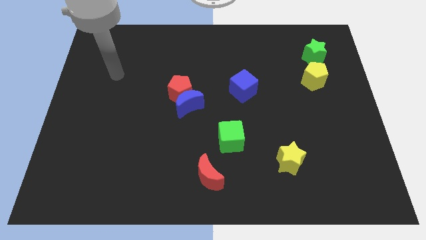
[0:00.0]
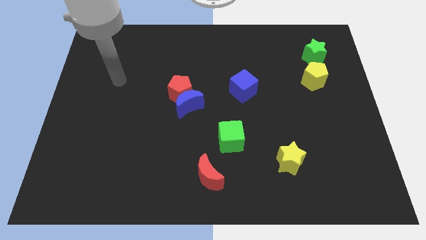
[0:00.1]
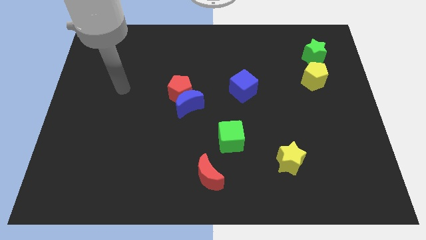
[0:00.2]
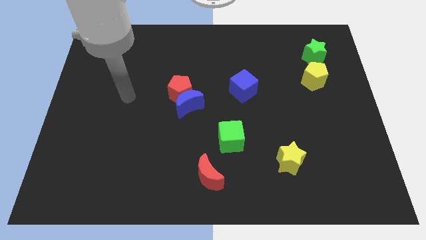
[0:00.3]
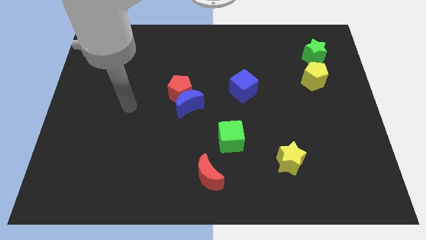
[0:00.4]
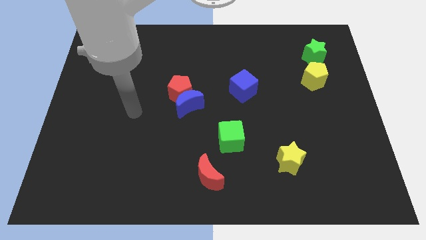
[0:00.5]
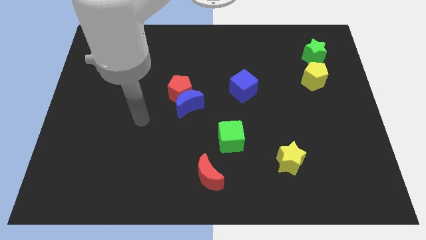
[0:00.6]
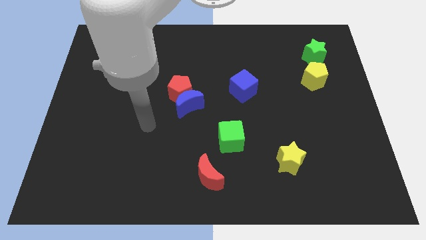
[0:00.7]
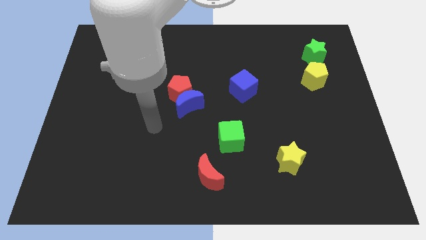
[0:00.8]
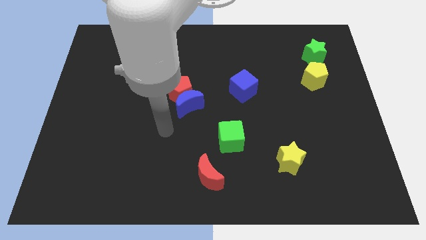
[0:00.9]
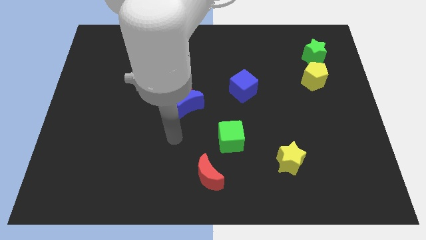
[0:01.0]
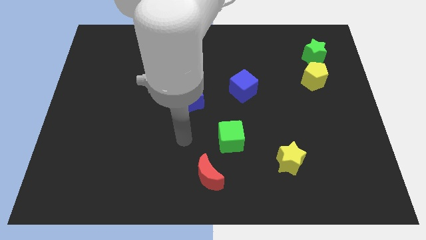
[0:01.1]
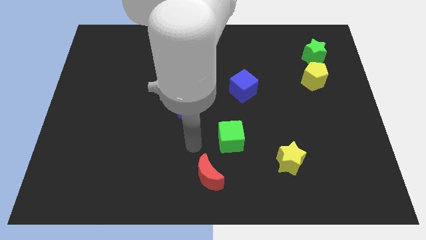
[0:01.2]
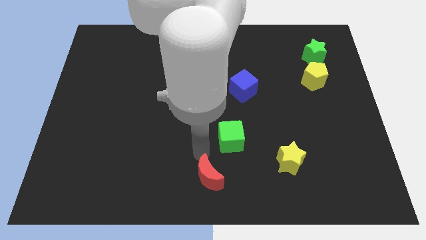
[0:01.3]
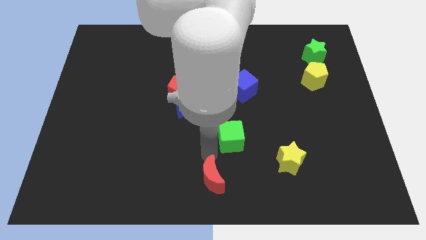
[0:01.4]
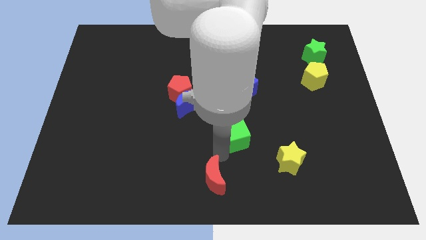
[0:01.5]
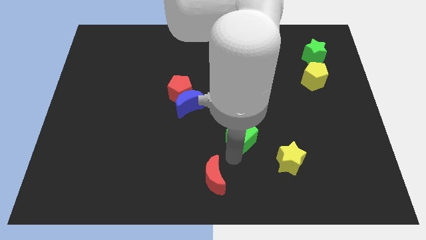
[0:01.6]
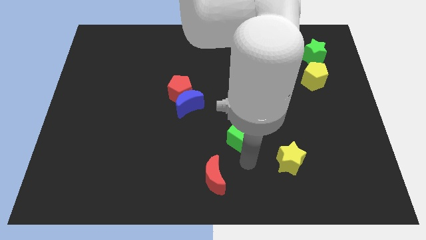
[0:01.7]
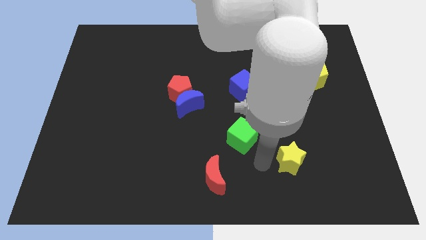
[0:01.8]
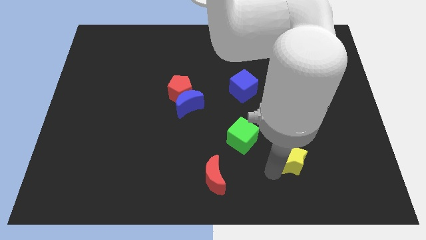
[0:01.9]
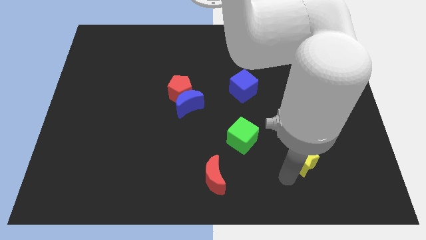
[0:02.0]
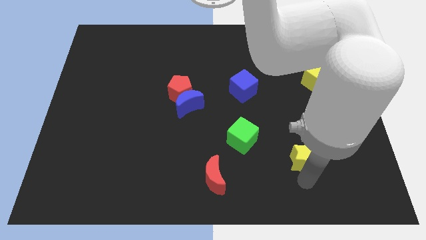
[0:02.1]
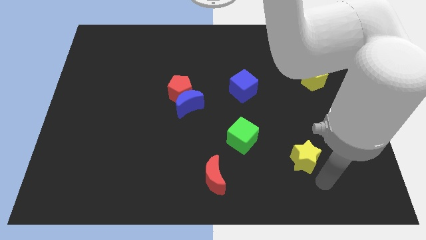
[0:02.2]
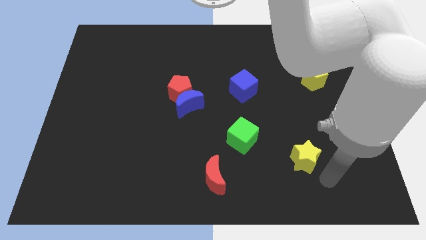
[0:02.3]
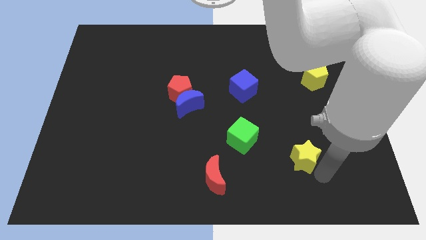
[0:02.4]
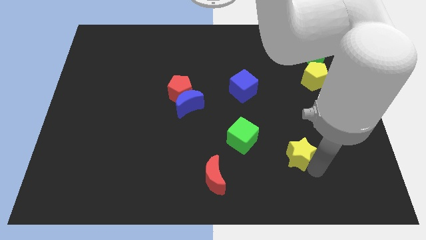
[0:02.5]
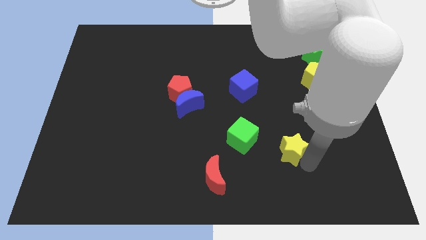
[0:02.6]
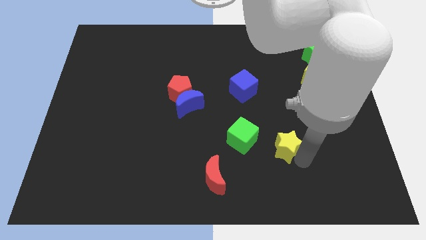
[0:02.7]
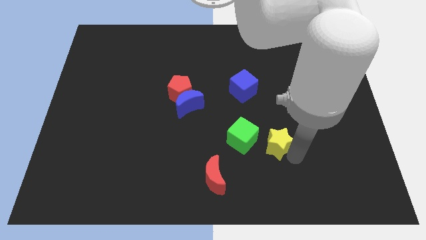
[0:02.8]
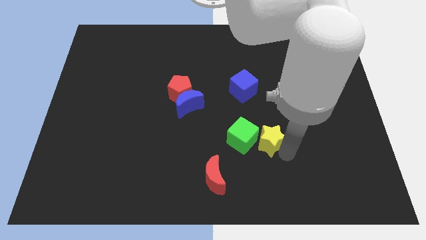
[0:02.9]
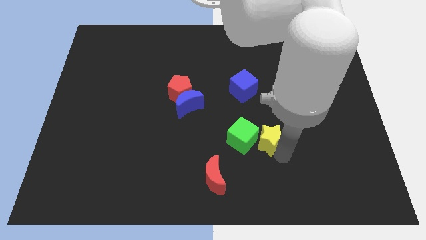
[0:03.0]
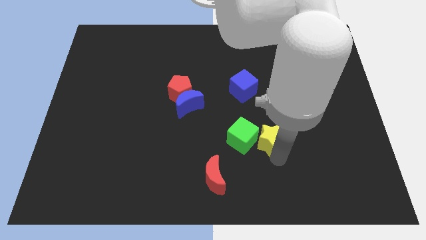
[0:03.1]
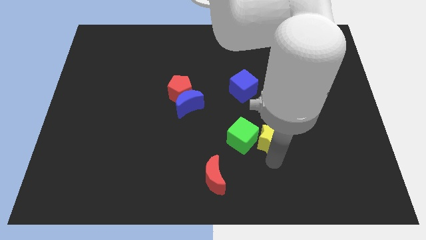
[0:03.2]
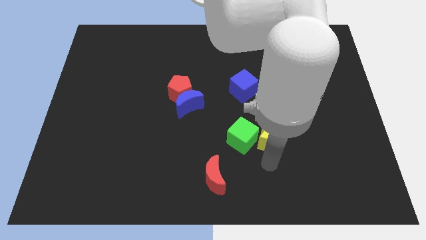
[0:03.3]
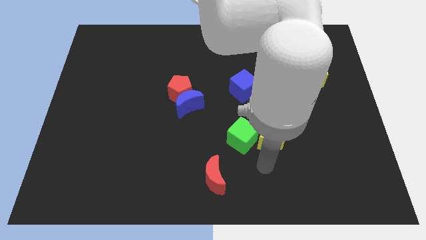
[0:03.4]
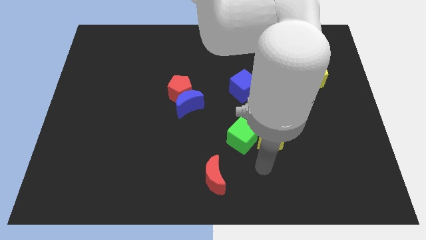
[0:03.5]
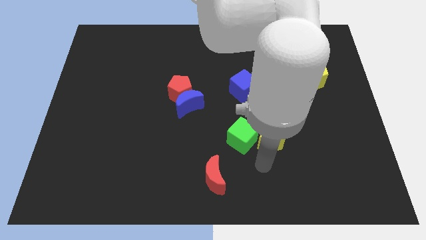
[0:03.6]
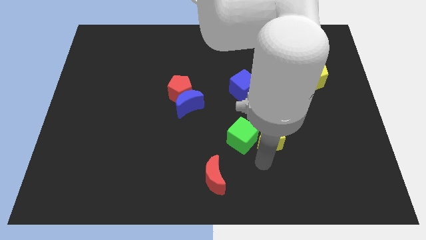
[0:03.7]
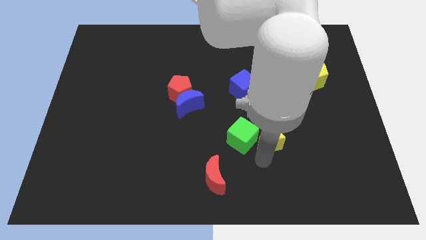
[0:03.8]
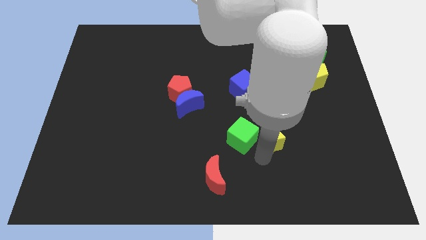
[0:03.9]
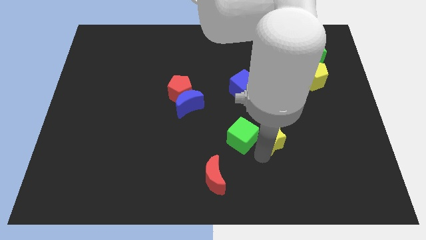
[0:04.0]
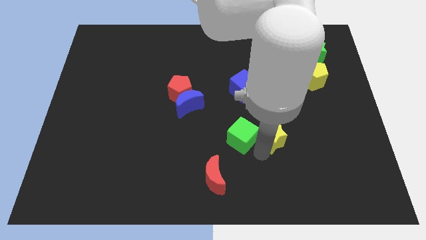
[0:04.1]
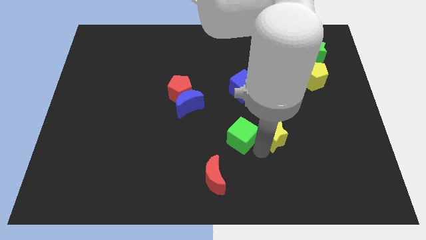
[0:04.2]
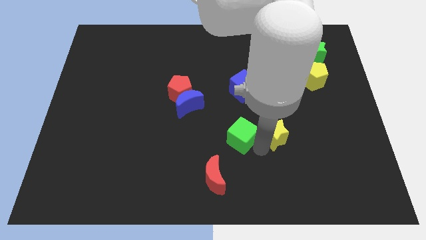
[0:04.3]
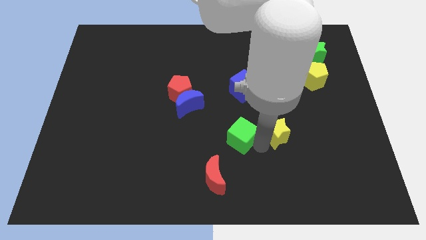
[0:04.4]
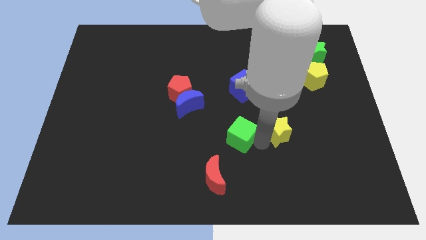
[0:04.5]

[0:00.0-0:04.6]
slightly slide the yellow star upwards

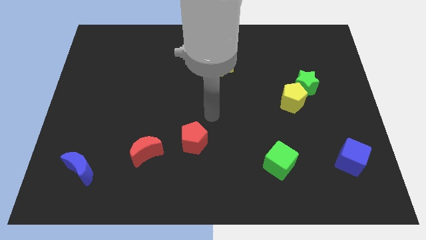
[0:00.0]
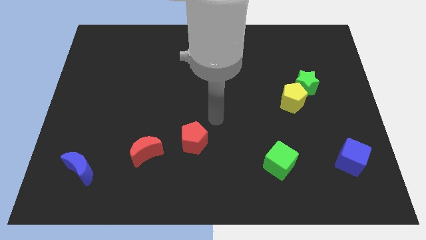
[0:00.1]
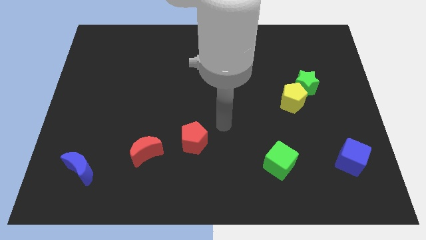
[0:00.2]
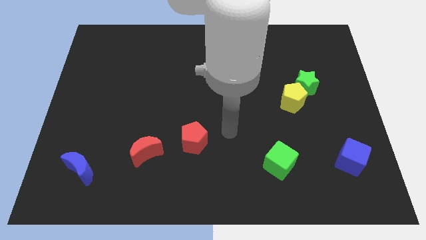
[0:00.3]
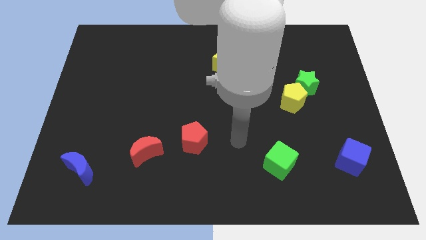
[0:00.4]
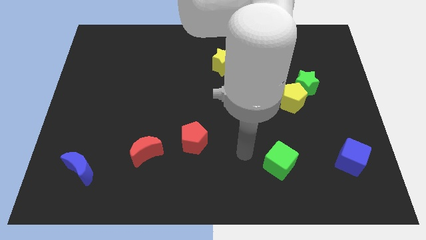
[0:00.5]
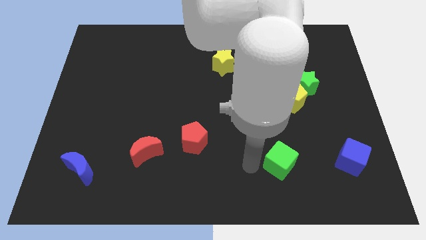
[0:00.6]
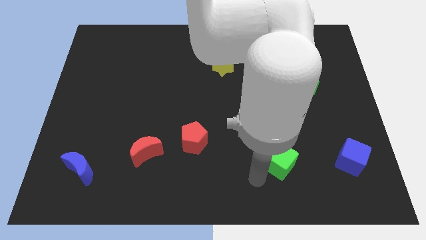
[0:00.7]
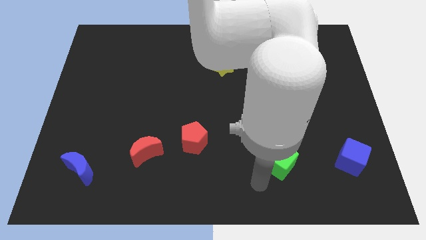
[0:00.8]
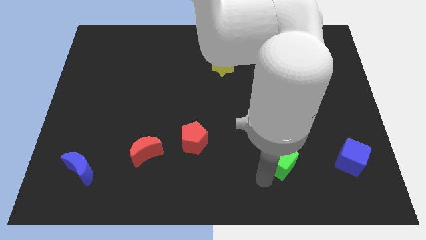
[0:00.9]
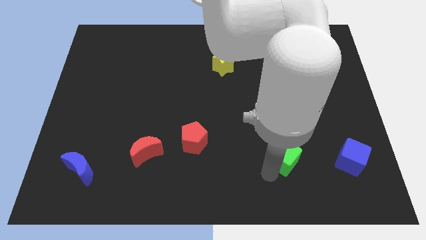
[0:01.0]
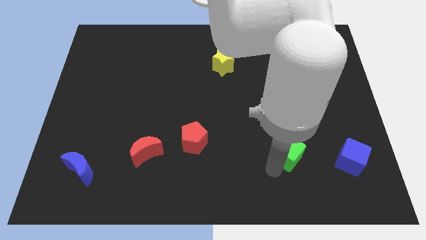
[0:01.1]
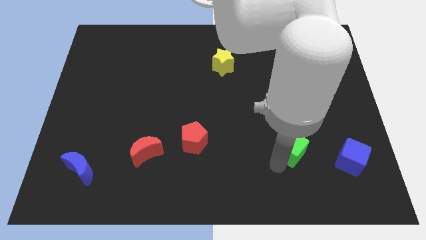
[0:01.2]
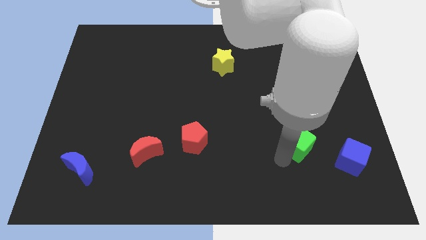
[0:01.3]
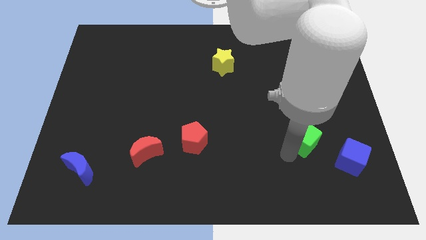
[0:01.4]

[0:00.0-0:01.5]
slightly push the green cube upwards and to the right

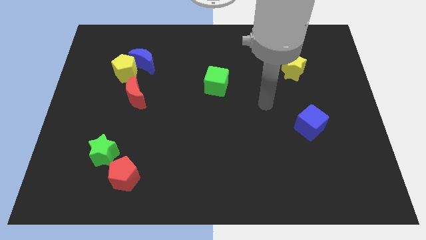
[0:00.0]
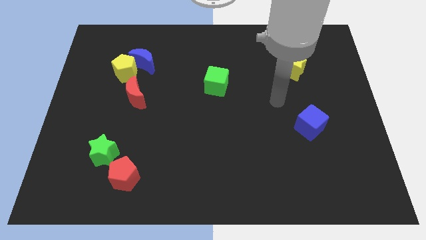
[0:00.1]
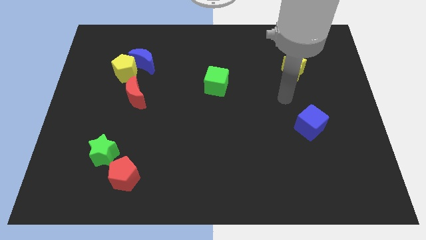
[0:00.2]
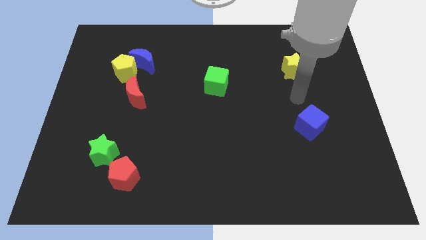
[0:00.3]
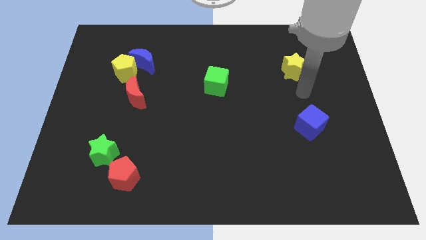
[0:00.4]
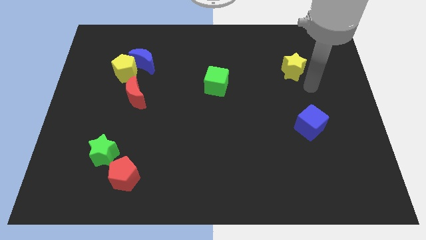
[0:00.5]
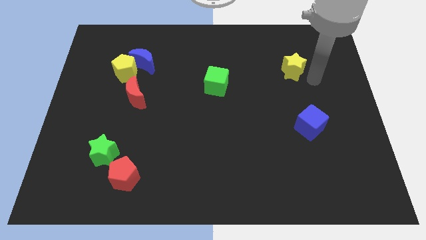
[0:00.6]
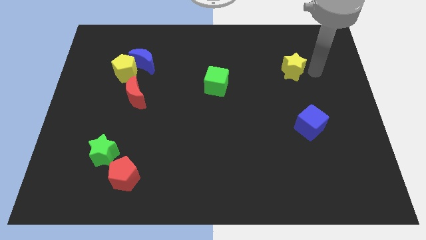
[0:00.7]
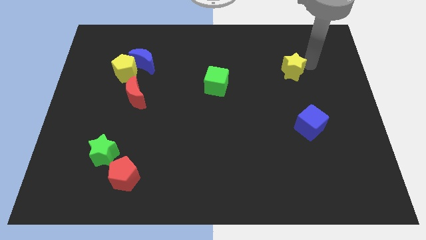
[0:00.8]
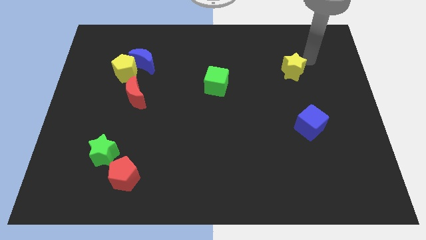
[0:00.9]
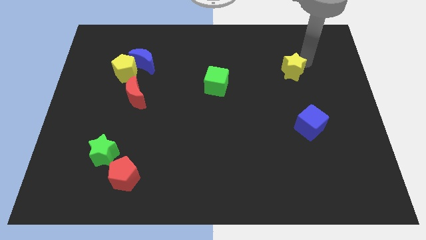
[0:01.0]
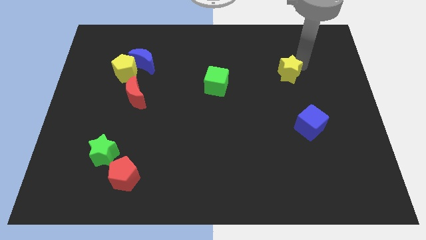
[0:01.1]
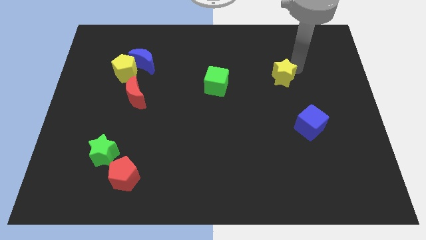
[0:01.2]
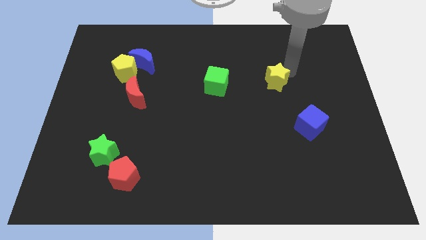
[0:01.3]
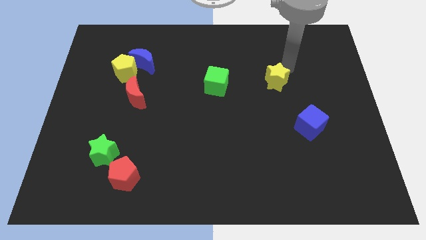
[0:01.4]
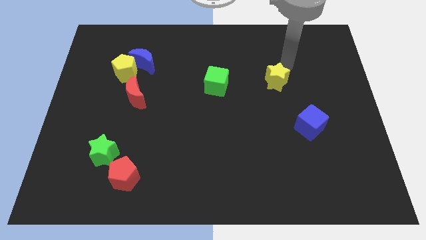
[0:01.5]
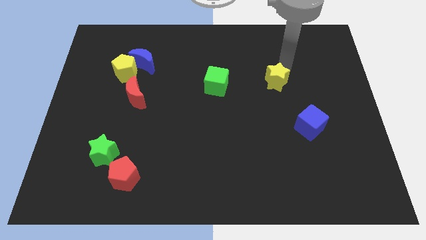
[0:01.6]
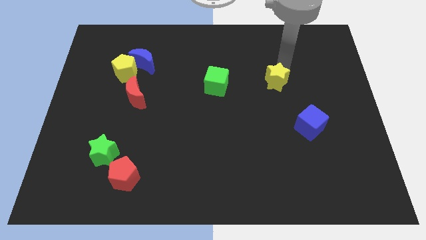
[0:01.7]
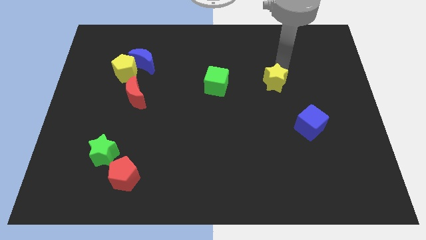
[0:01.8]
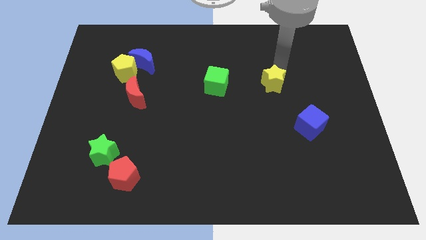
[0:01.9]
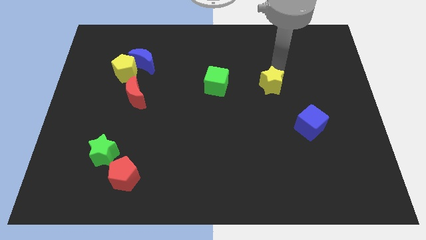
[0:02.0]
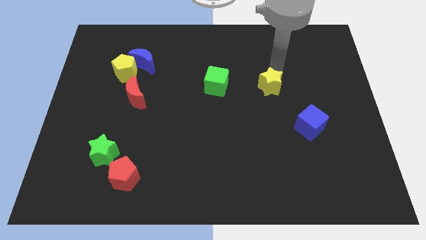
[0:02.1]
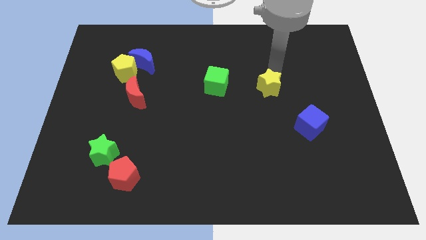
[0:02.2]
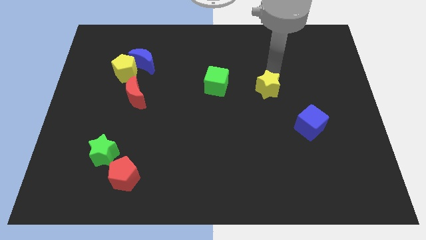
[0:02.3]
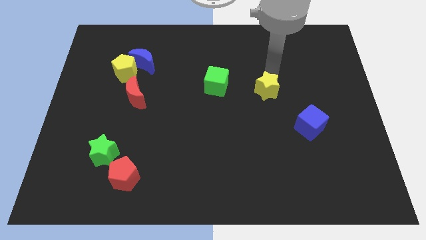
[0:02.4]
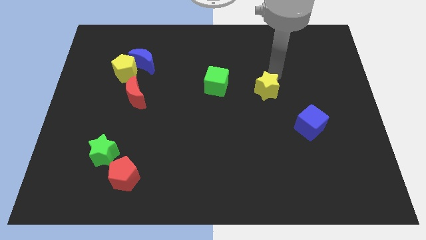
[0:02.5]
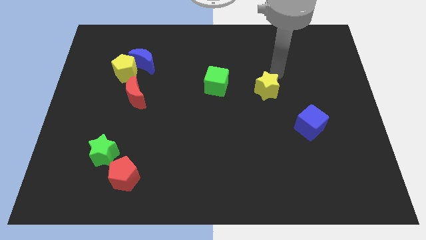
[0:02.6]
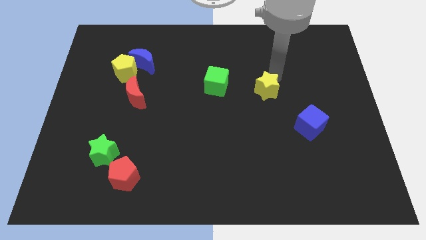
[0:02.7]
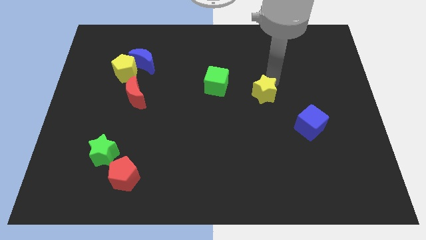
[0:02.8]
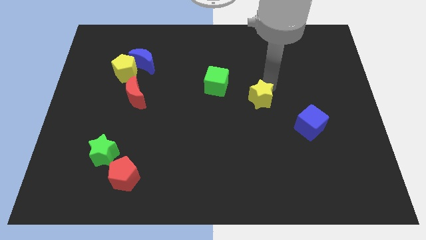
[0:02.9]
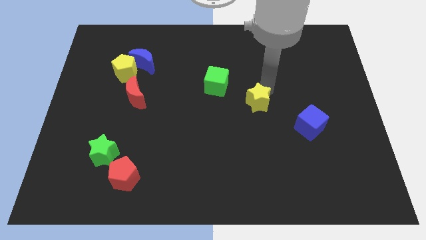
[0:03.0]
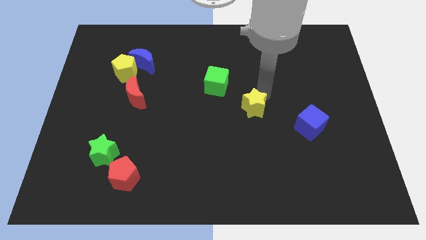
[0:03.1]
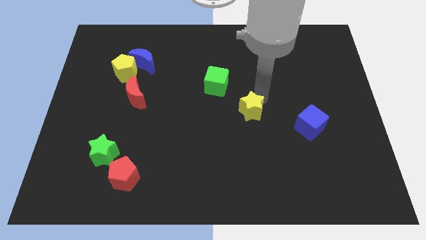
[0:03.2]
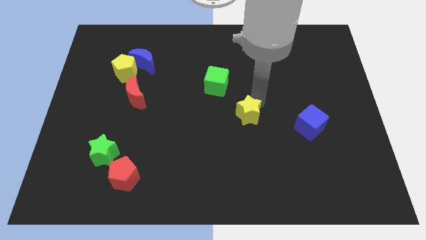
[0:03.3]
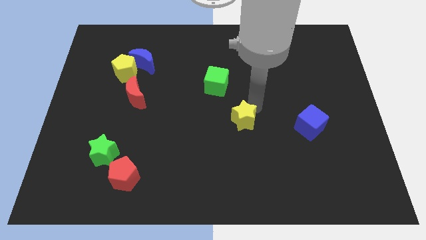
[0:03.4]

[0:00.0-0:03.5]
move the yellow star down and to the left diagonally
